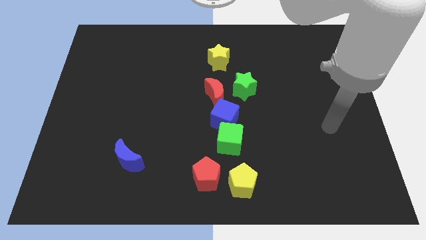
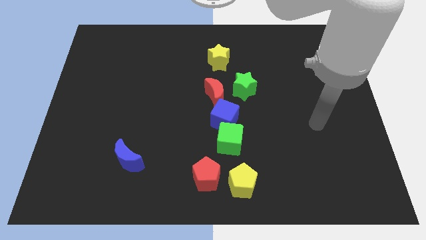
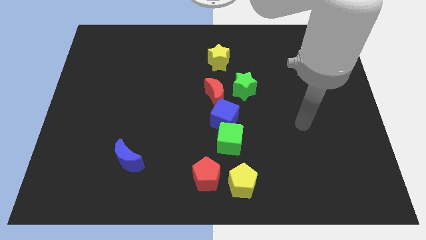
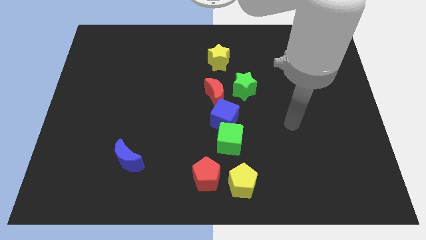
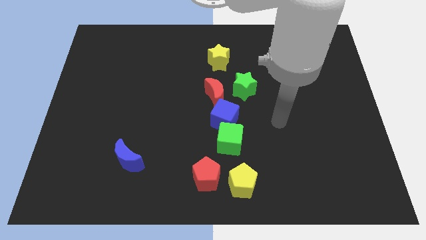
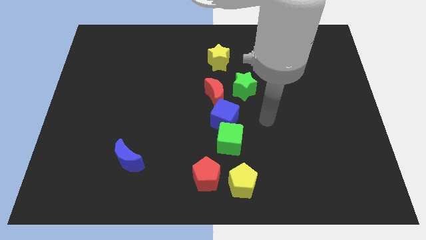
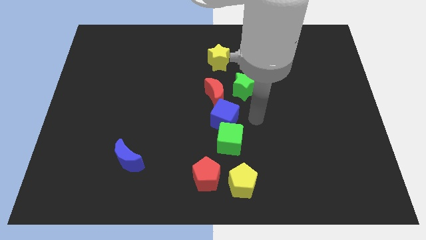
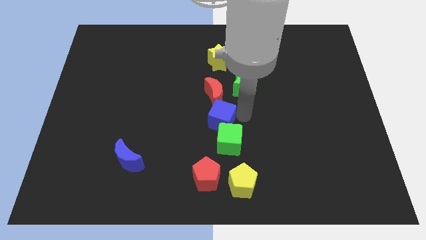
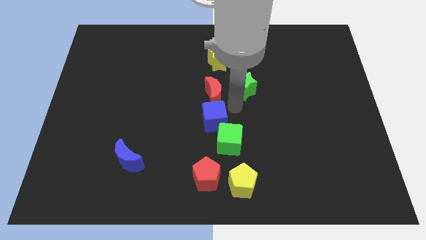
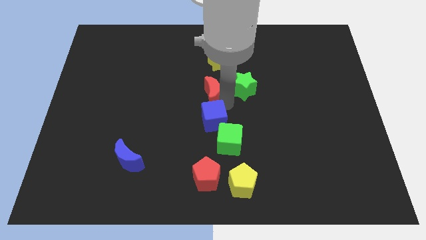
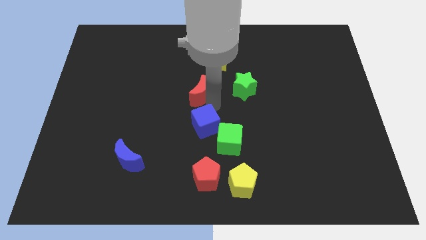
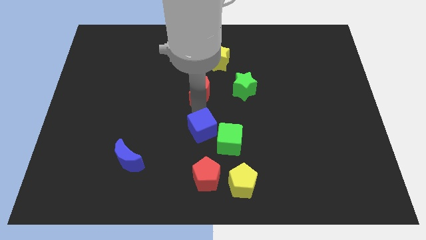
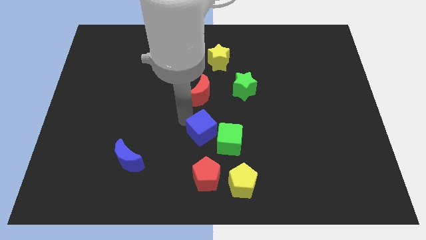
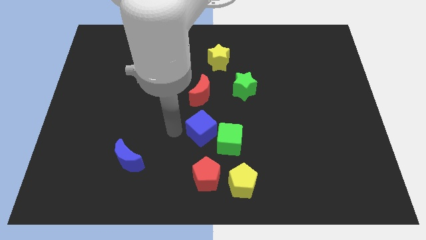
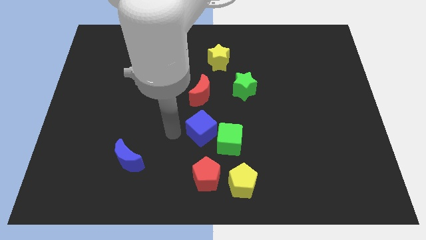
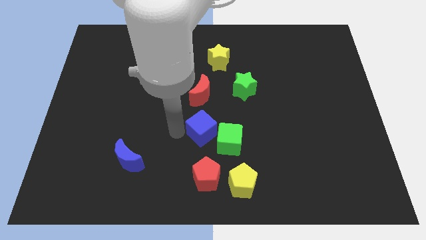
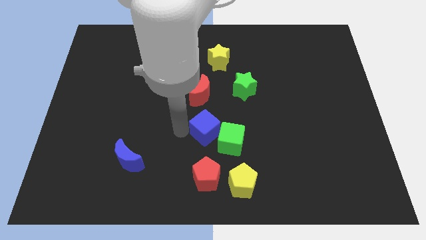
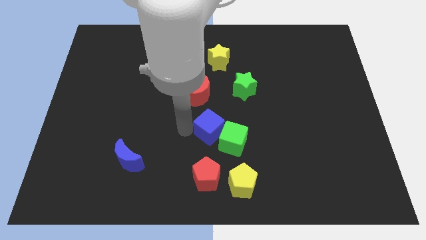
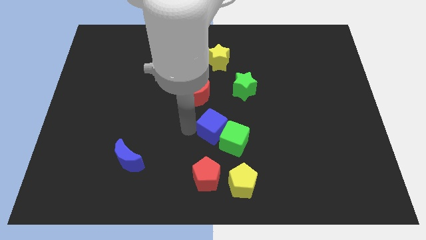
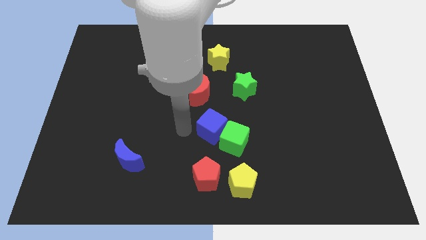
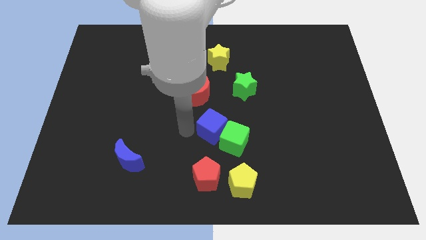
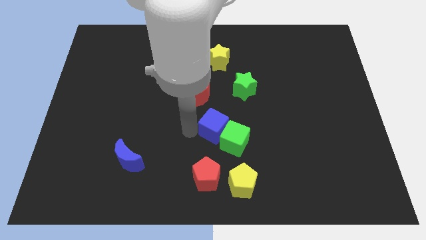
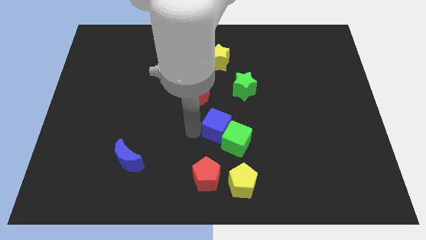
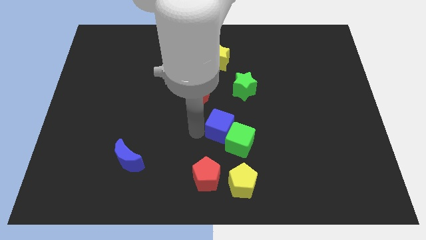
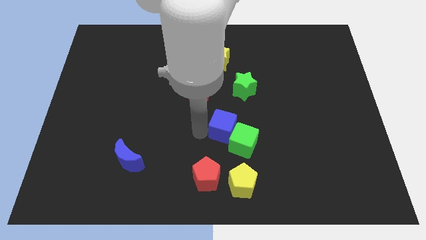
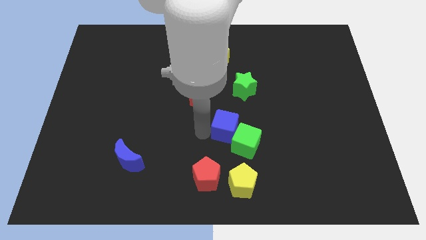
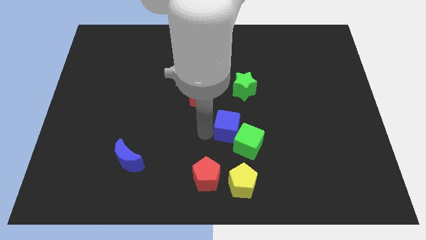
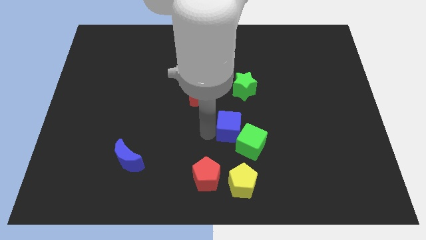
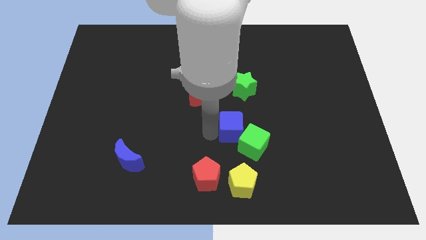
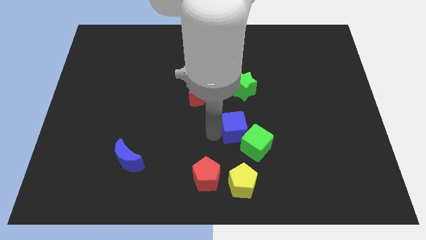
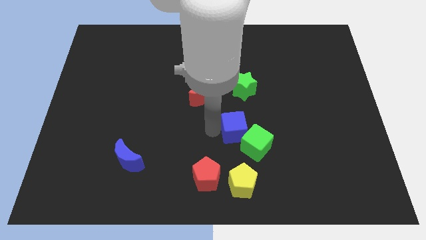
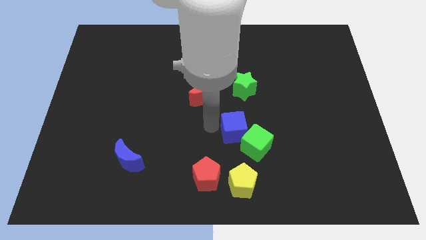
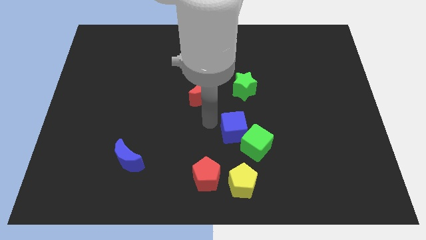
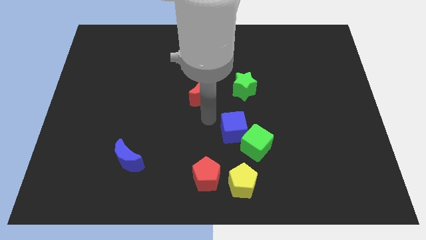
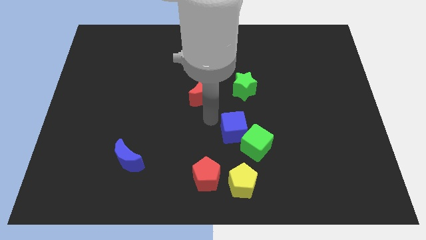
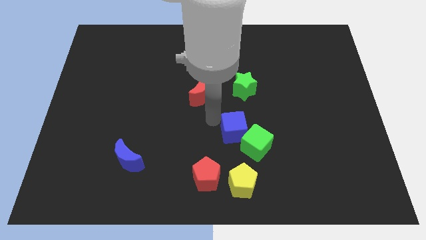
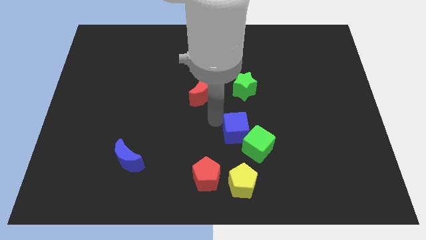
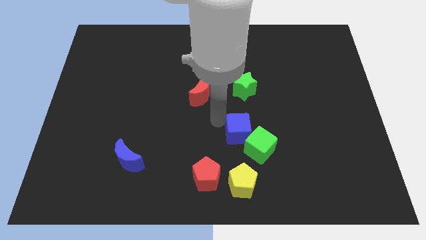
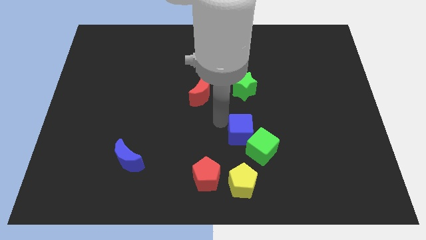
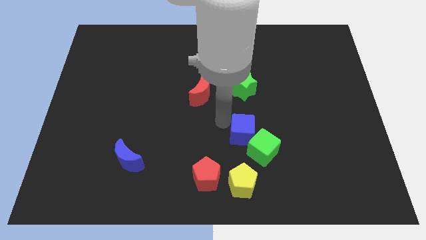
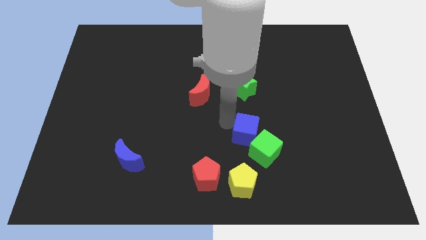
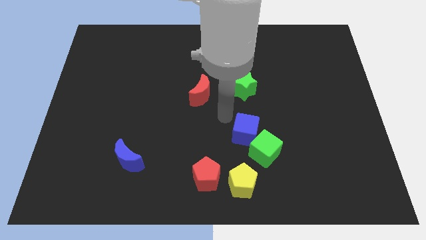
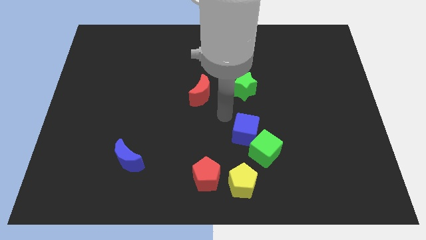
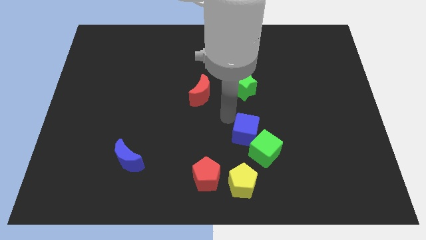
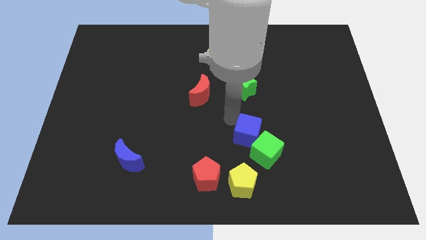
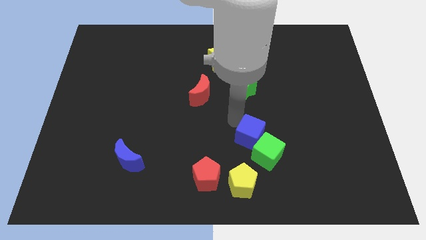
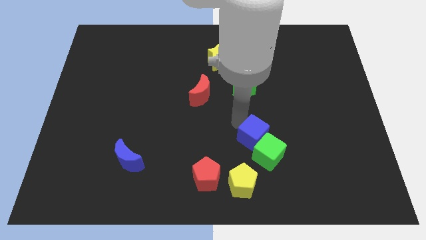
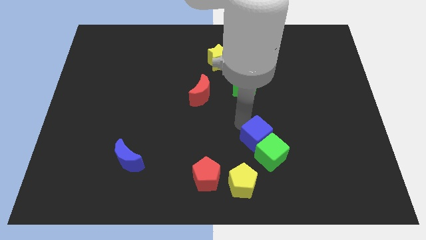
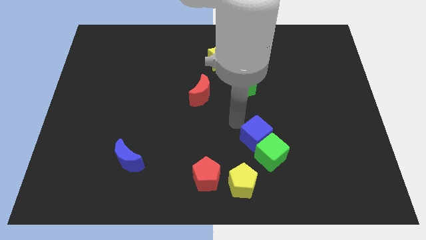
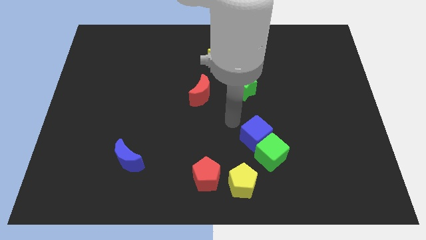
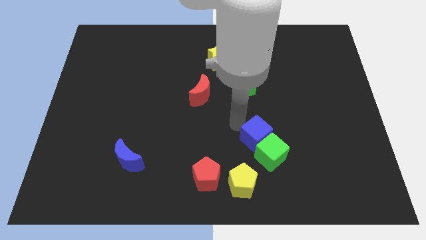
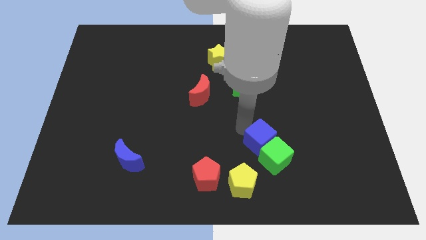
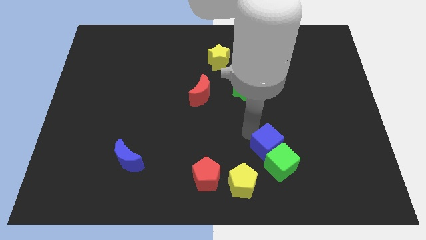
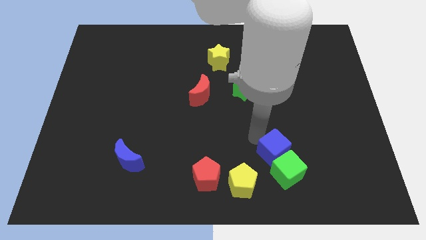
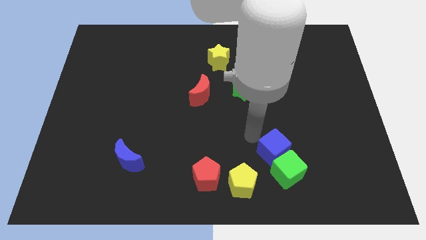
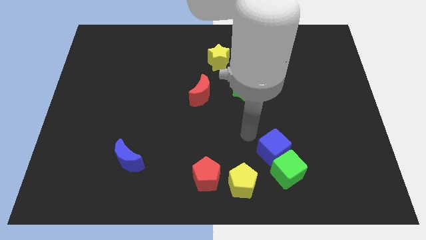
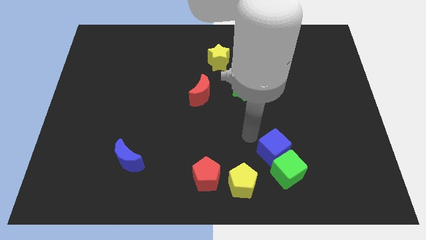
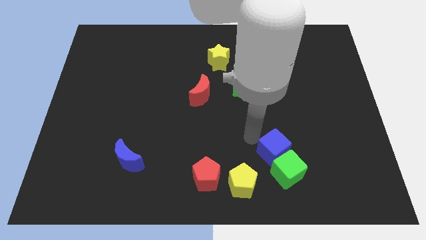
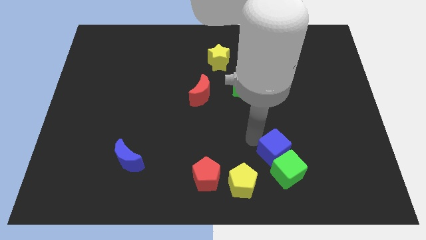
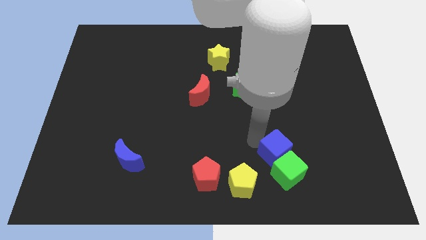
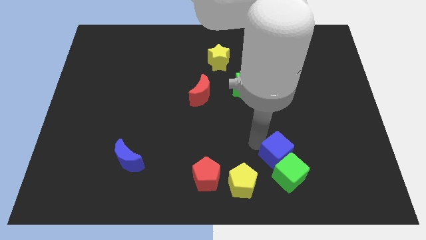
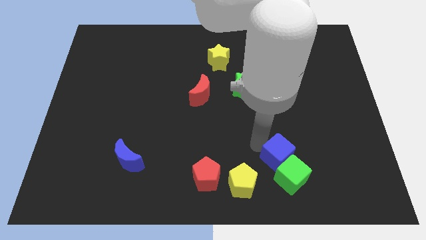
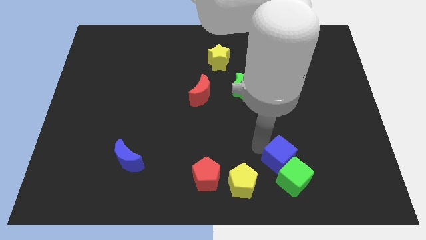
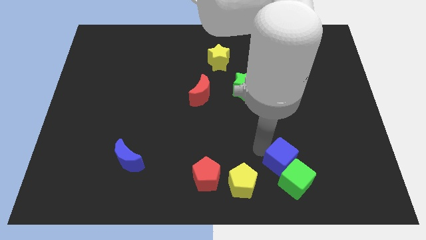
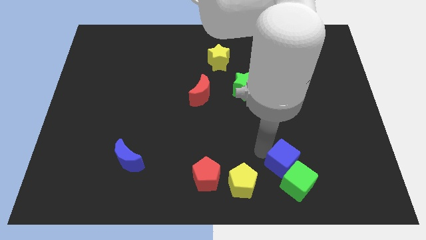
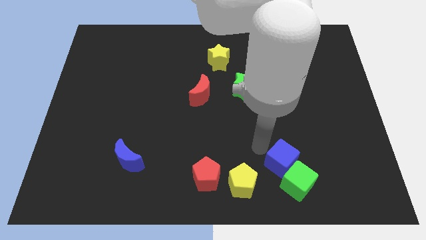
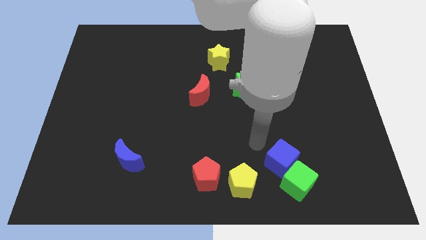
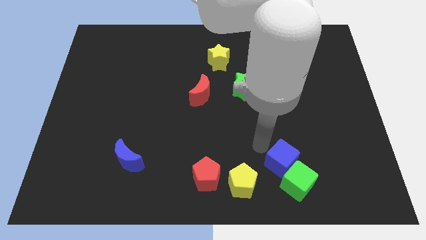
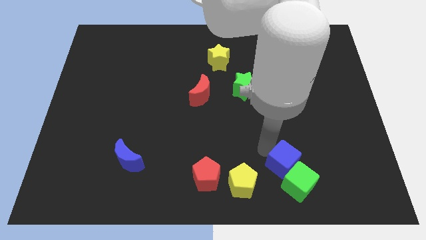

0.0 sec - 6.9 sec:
separate the blue cube from the green cube and red moon

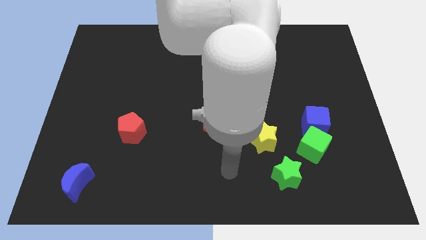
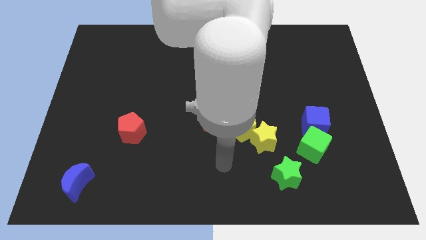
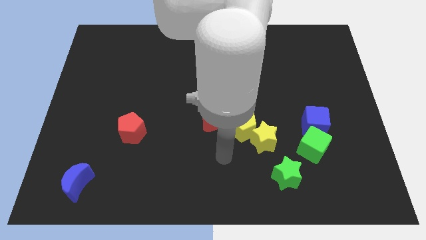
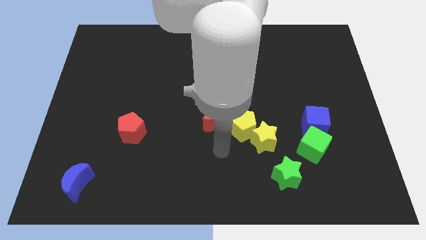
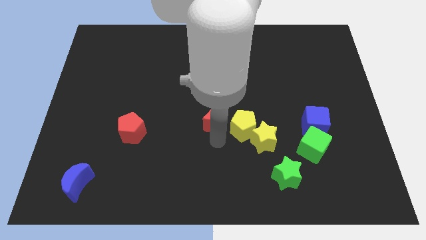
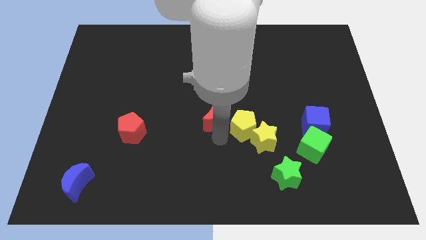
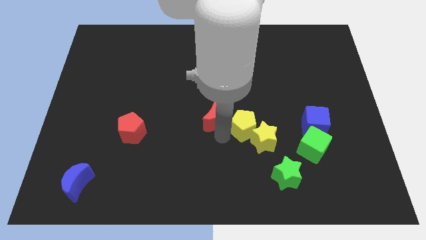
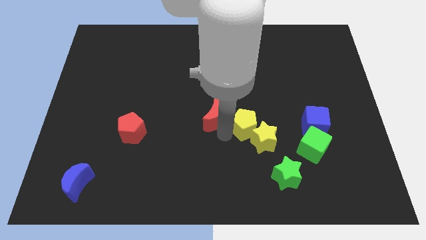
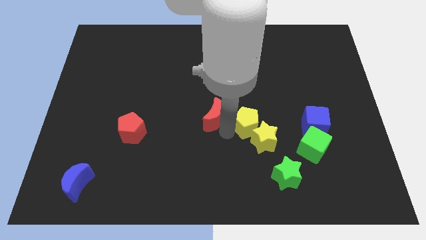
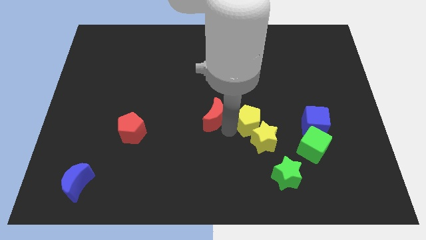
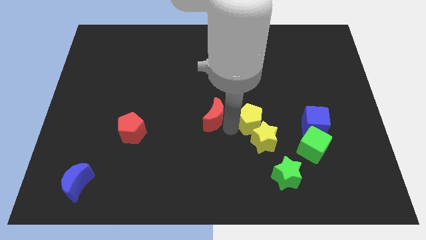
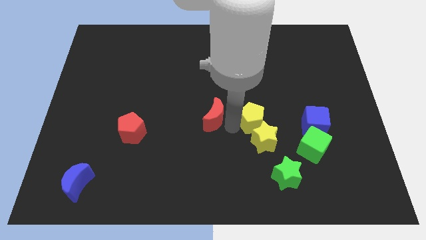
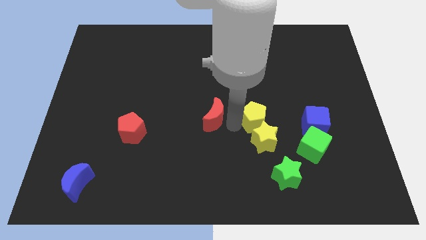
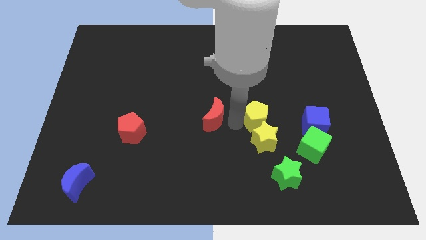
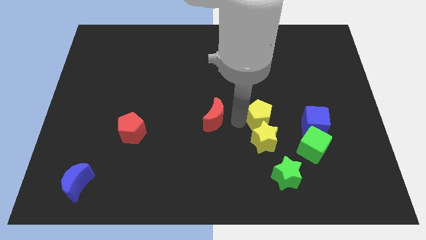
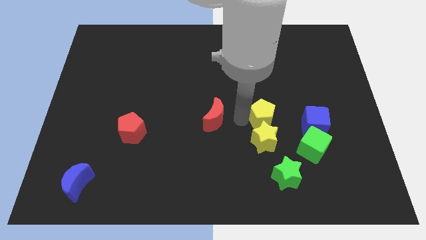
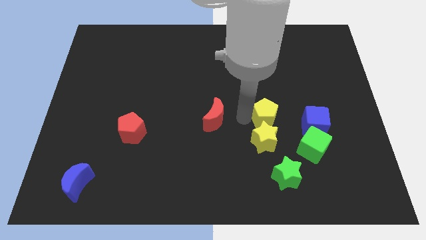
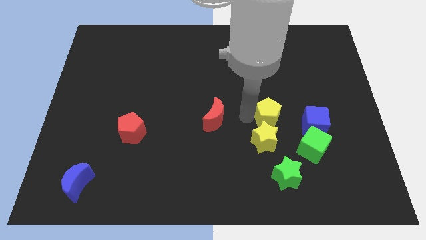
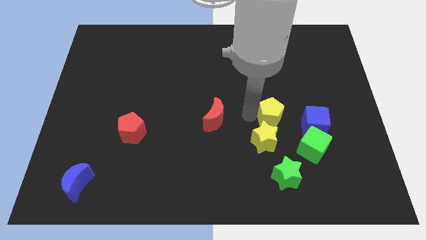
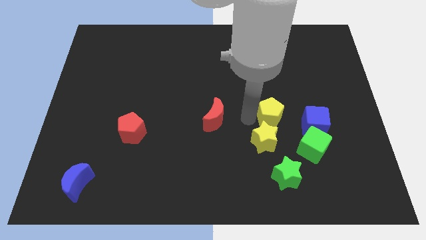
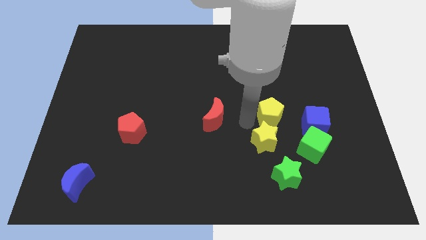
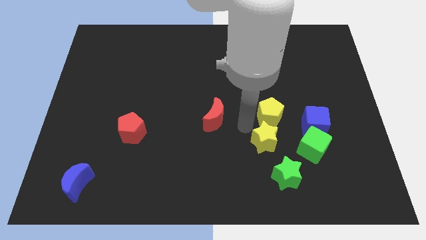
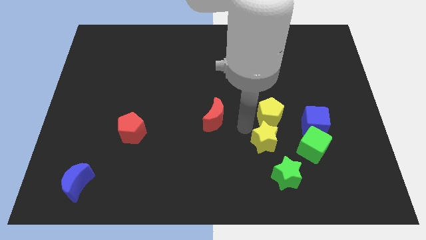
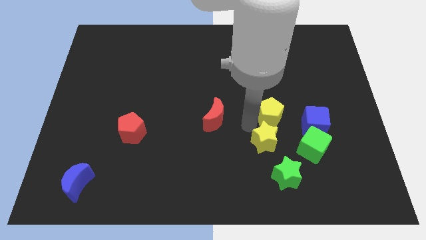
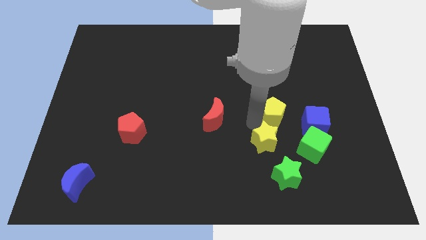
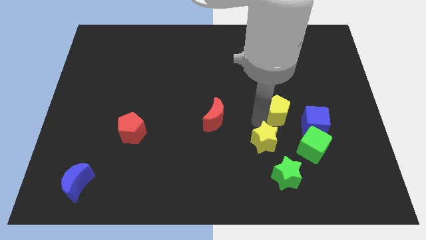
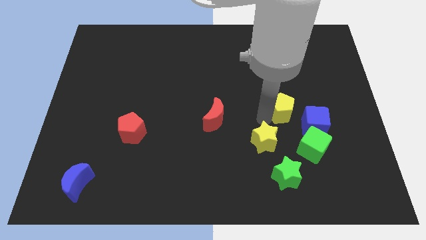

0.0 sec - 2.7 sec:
pull the yellow pentagon apart from the yellow star and red moon
